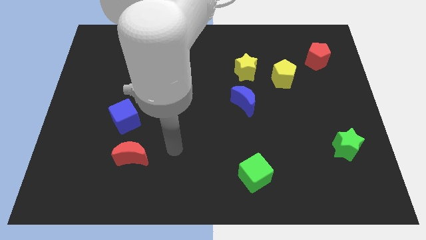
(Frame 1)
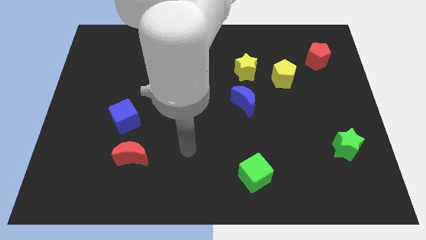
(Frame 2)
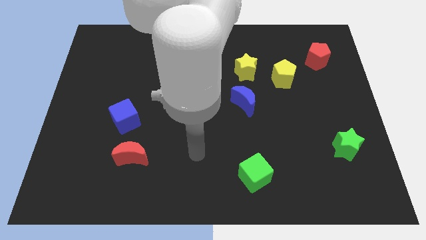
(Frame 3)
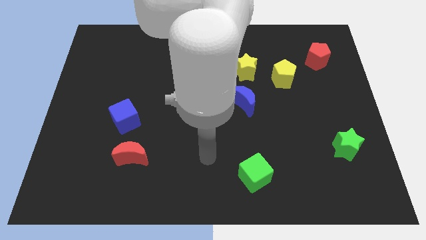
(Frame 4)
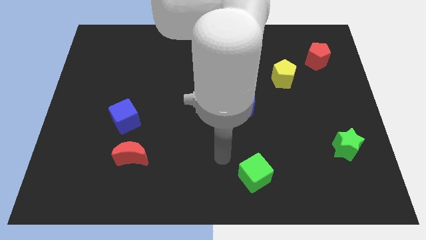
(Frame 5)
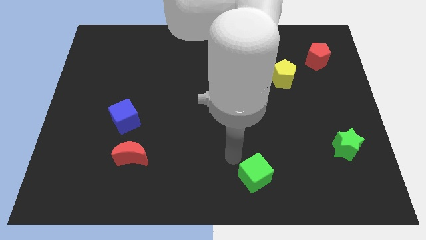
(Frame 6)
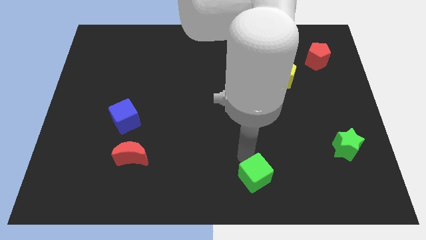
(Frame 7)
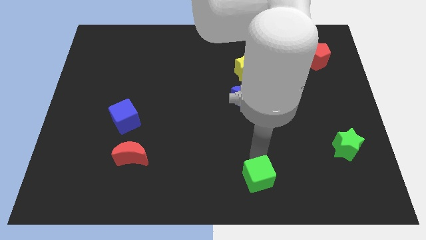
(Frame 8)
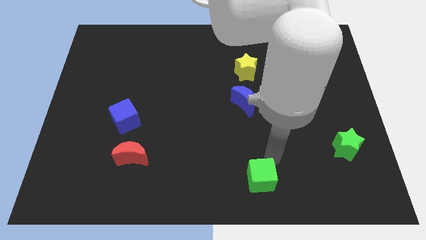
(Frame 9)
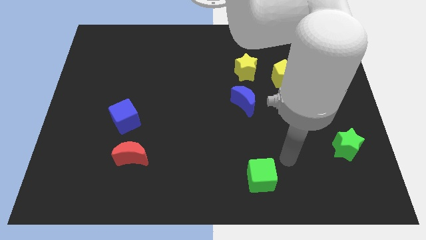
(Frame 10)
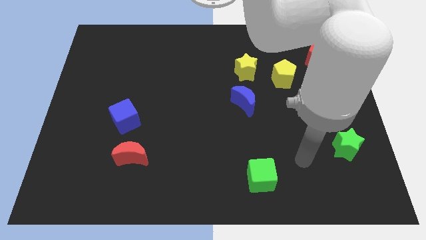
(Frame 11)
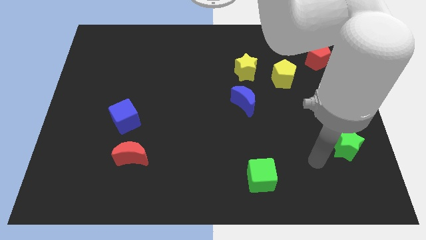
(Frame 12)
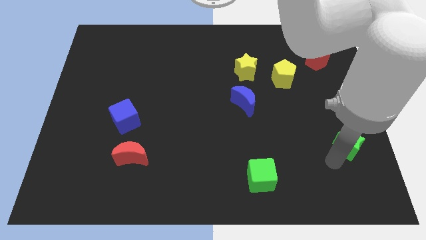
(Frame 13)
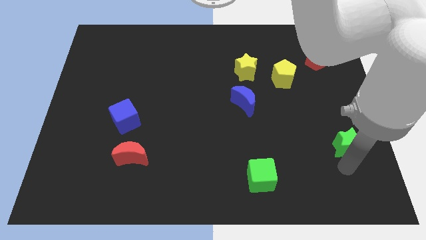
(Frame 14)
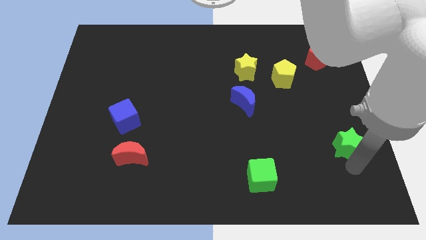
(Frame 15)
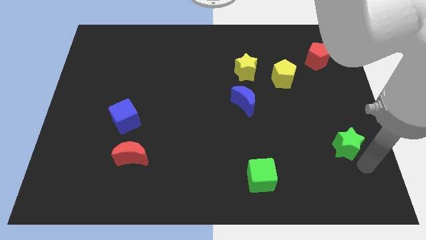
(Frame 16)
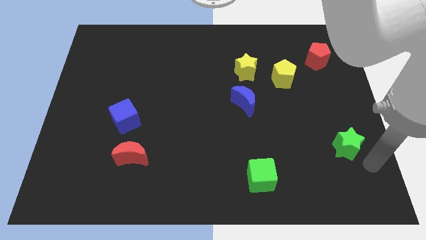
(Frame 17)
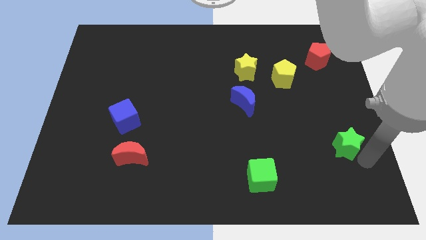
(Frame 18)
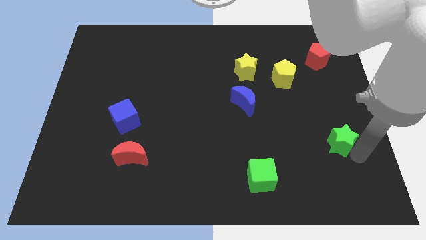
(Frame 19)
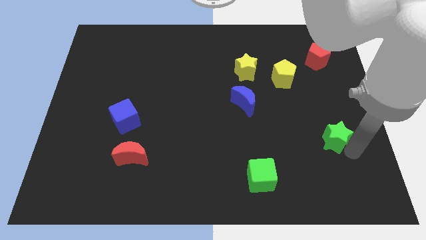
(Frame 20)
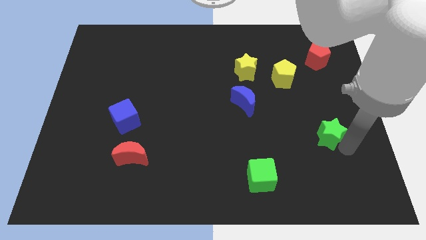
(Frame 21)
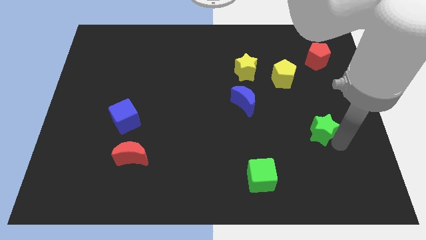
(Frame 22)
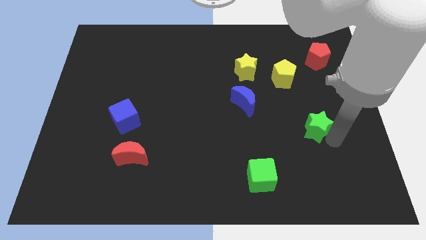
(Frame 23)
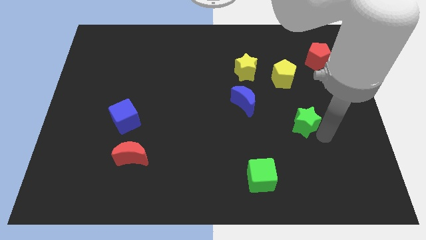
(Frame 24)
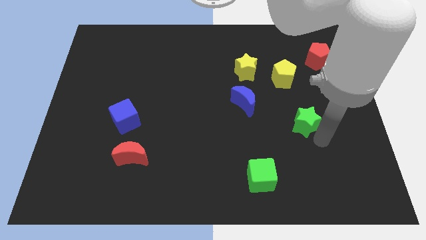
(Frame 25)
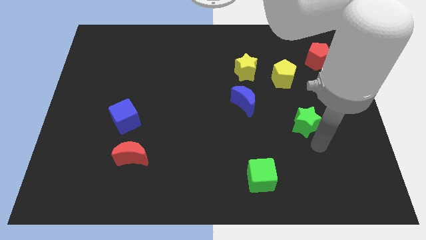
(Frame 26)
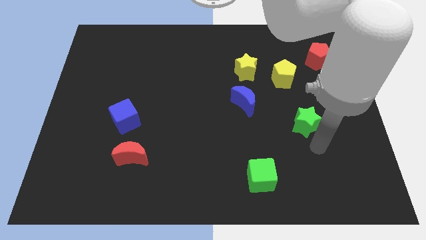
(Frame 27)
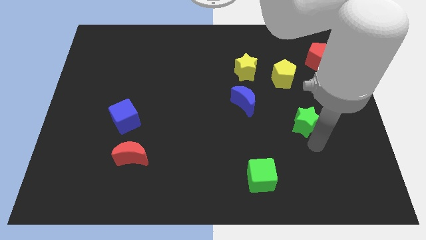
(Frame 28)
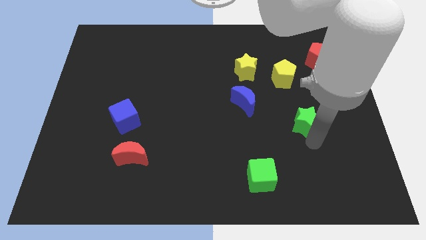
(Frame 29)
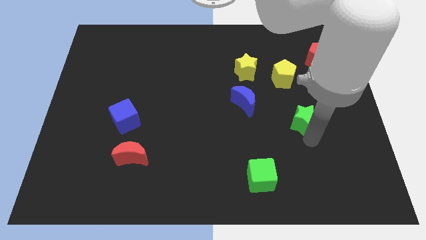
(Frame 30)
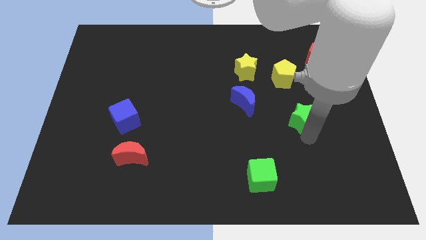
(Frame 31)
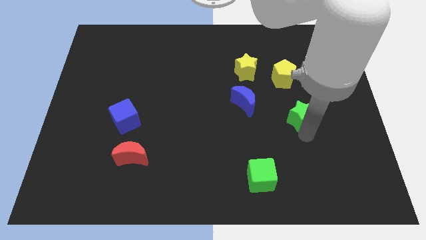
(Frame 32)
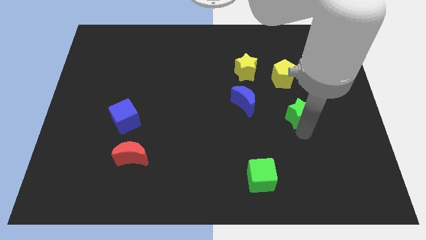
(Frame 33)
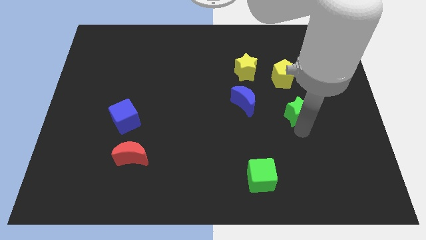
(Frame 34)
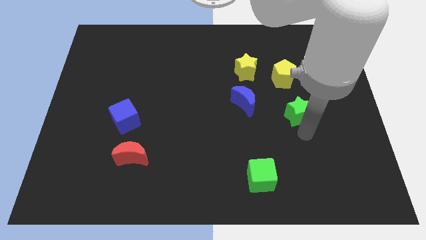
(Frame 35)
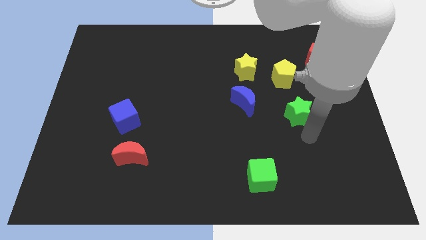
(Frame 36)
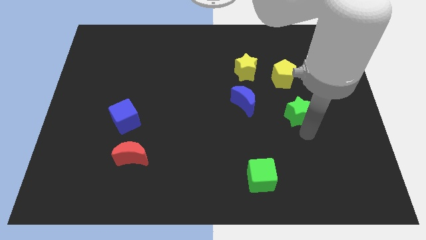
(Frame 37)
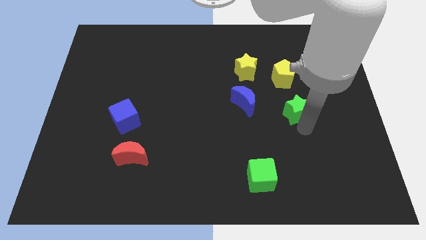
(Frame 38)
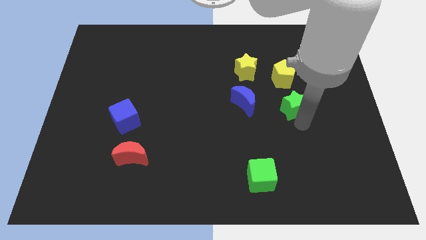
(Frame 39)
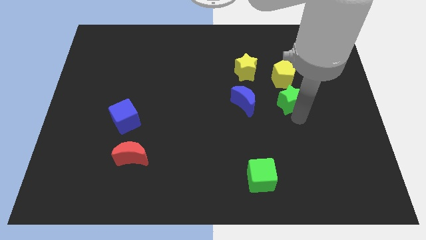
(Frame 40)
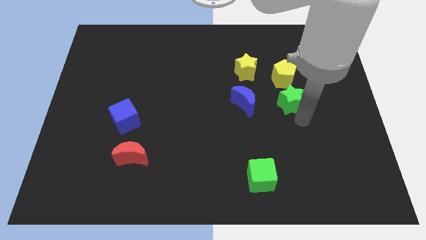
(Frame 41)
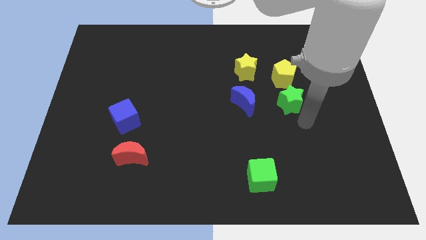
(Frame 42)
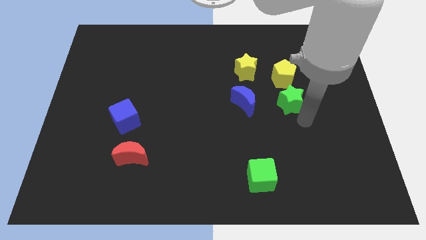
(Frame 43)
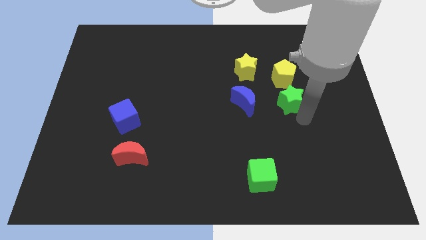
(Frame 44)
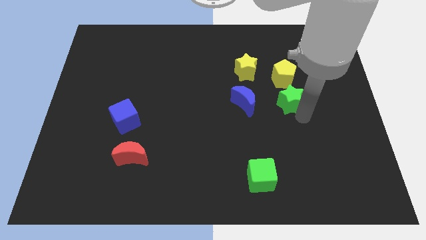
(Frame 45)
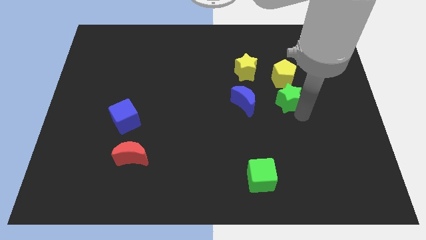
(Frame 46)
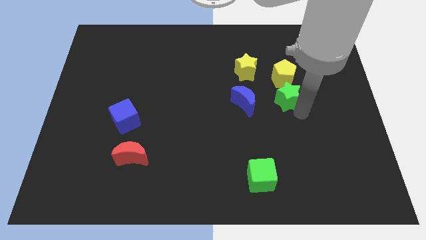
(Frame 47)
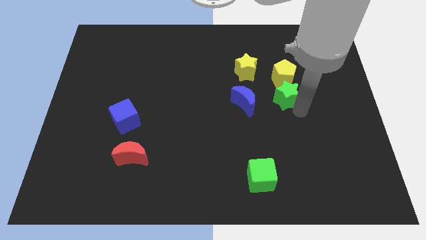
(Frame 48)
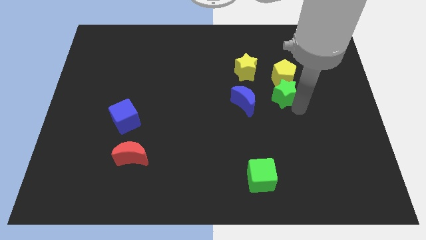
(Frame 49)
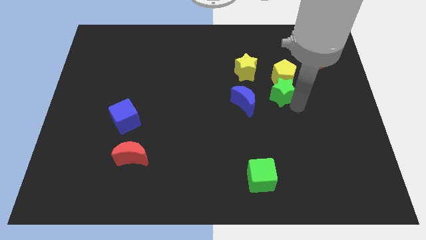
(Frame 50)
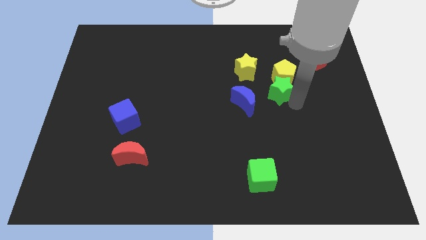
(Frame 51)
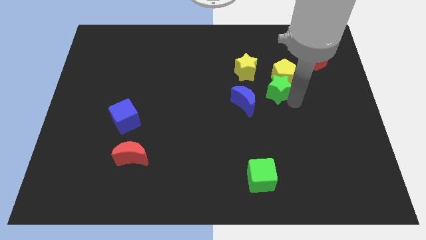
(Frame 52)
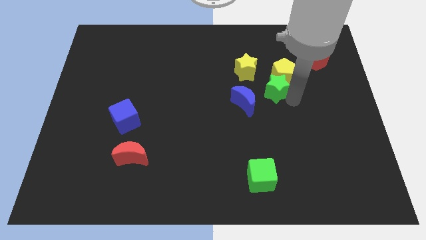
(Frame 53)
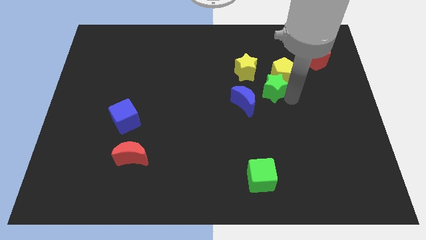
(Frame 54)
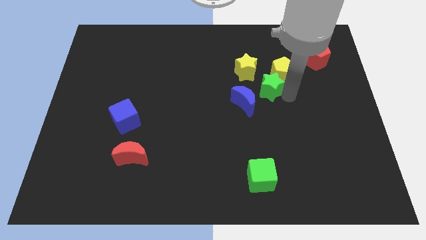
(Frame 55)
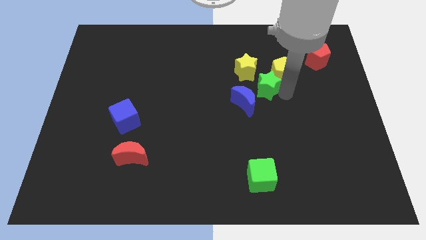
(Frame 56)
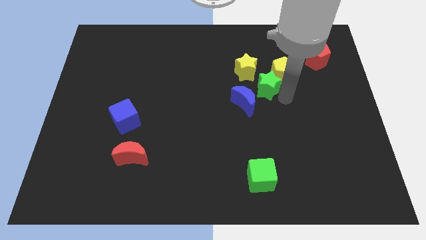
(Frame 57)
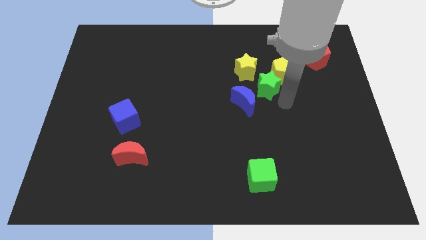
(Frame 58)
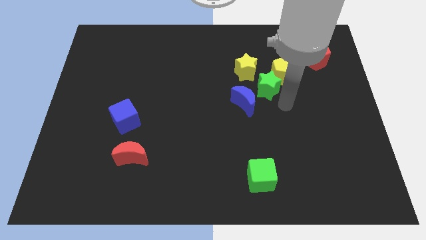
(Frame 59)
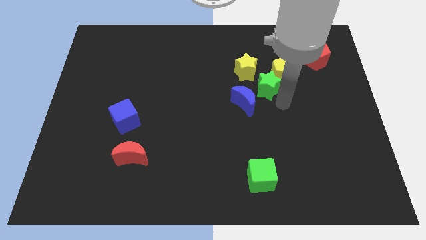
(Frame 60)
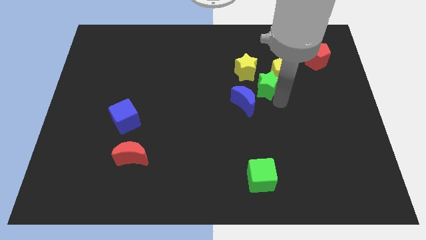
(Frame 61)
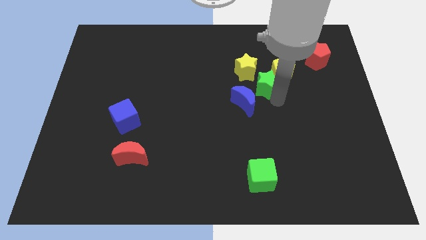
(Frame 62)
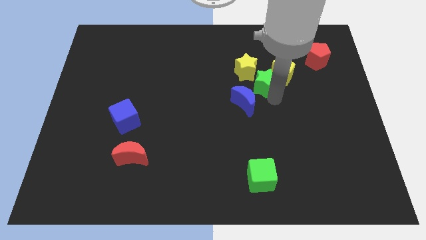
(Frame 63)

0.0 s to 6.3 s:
put the green star to the yellow star

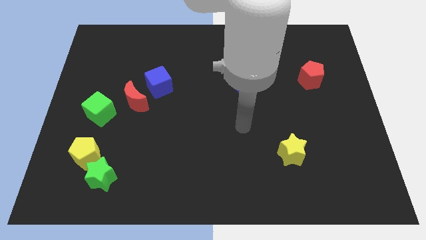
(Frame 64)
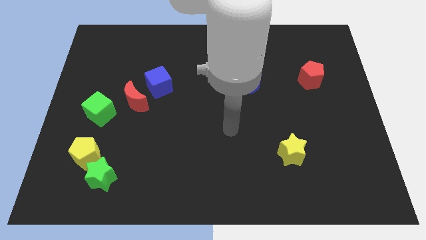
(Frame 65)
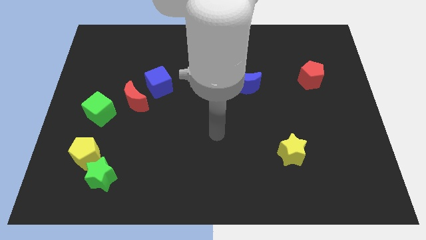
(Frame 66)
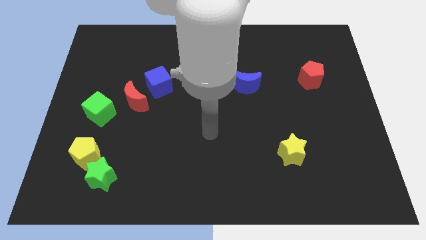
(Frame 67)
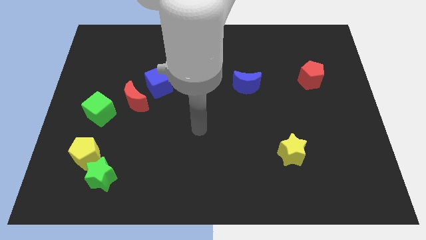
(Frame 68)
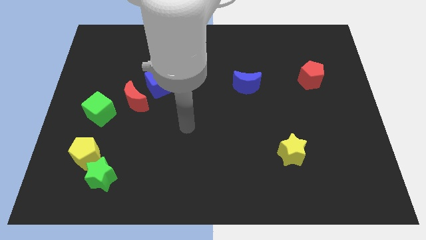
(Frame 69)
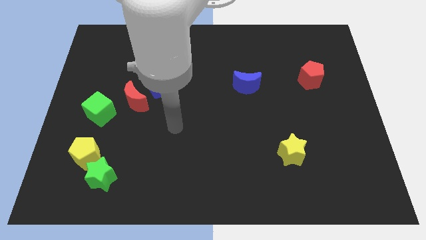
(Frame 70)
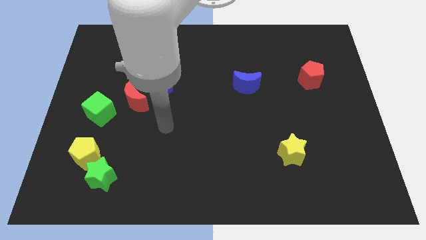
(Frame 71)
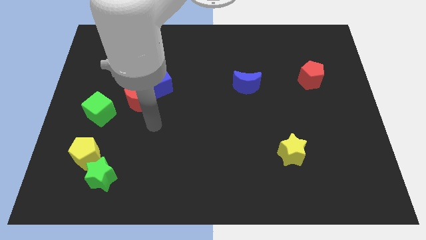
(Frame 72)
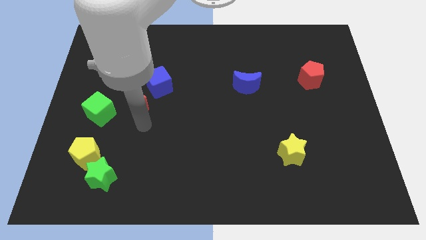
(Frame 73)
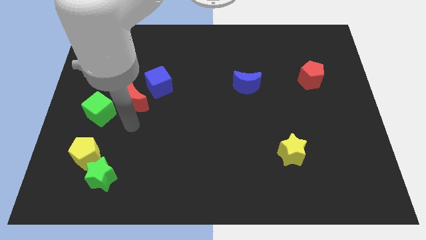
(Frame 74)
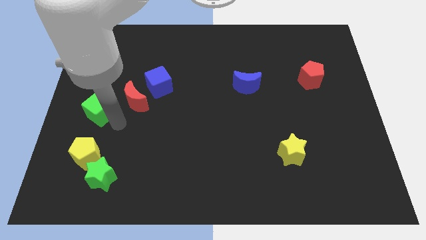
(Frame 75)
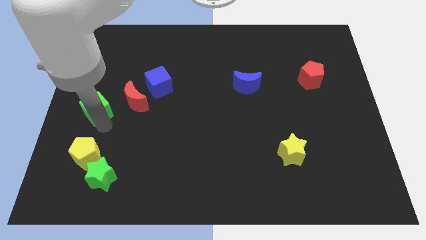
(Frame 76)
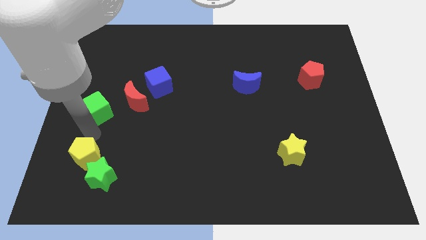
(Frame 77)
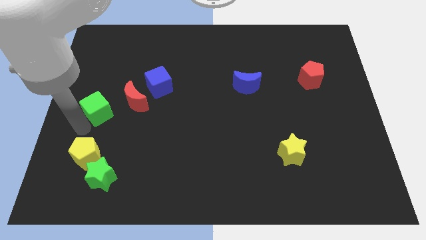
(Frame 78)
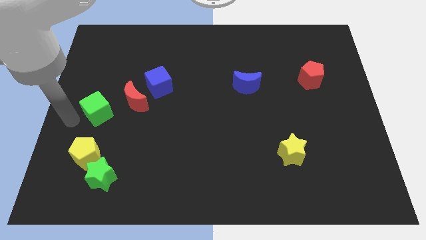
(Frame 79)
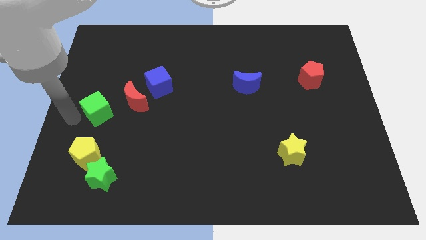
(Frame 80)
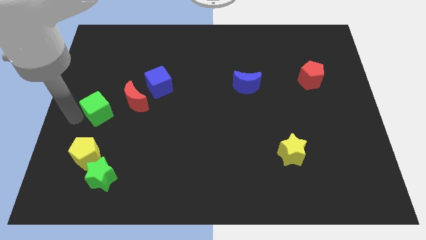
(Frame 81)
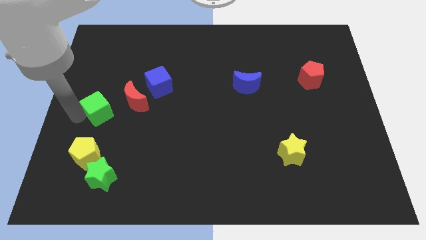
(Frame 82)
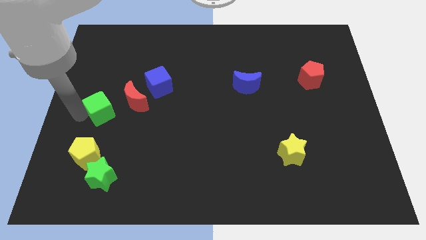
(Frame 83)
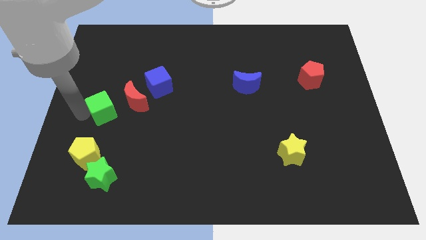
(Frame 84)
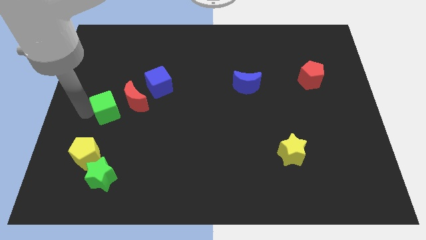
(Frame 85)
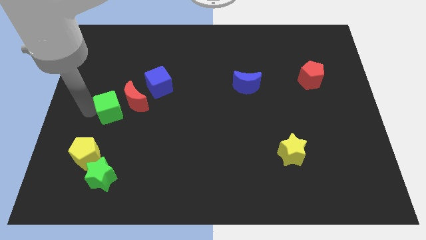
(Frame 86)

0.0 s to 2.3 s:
put the green cube towards the red moon
